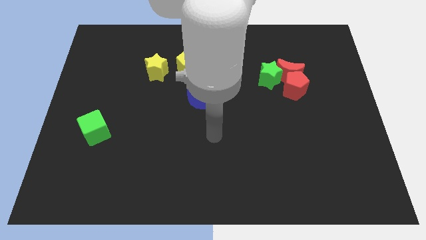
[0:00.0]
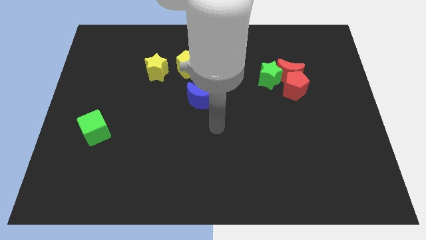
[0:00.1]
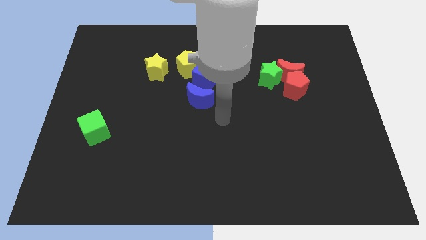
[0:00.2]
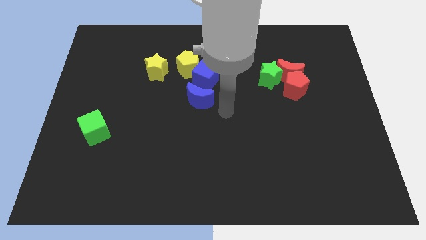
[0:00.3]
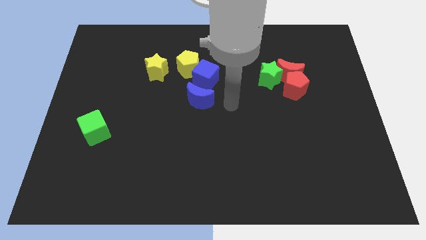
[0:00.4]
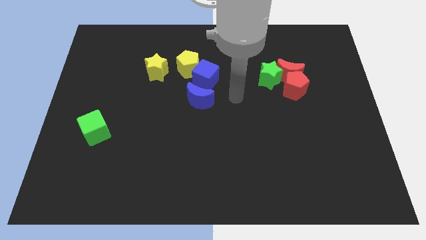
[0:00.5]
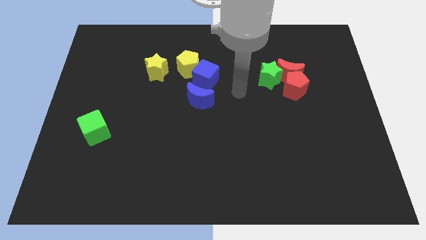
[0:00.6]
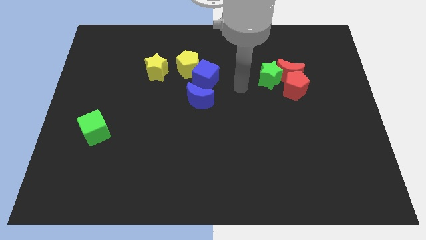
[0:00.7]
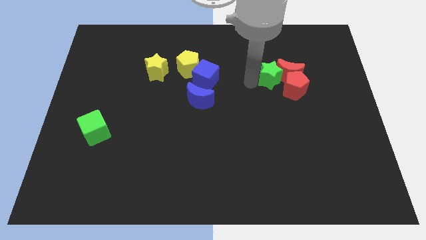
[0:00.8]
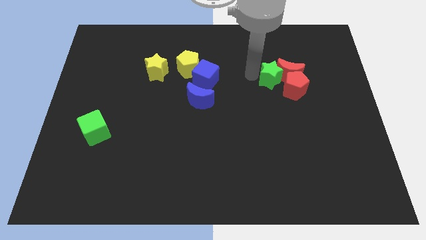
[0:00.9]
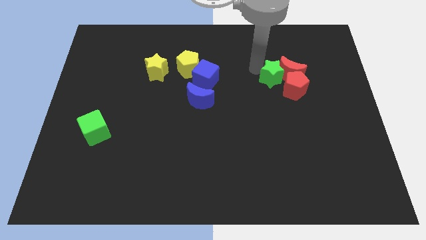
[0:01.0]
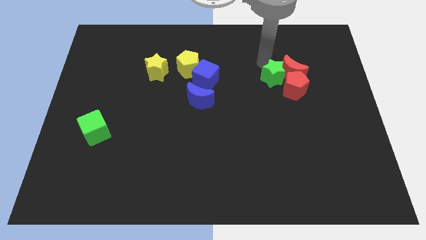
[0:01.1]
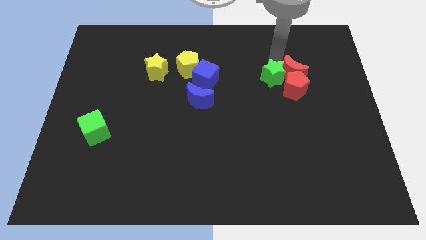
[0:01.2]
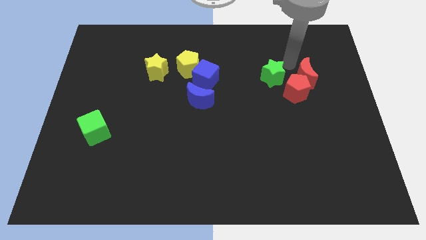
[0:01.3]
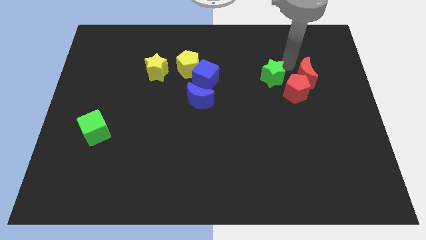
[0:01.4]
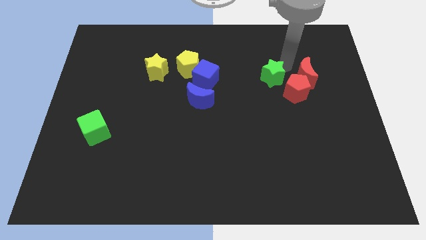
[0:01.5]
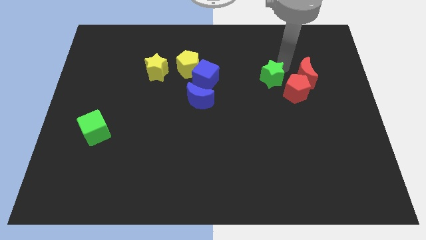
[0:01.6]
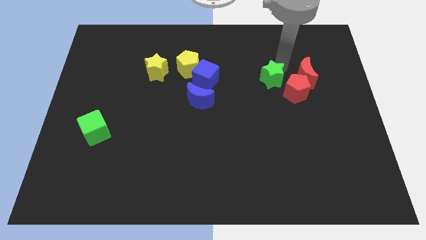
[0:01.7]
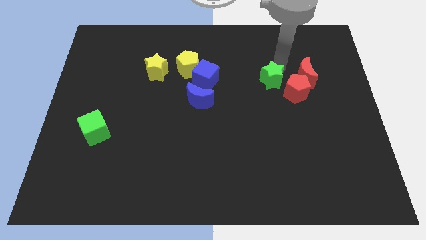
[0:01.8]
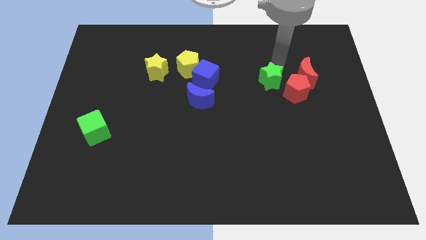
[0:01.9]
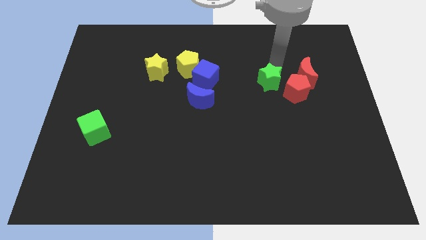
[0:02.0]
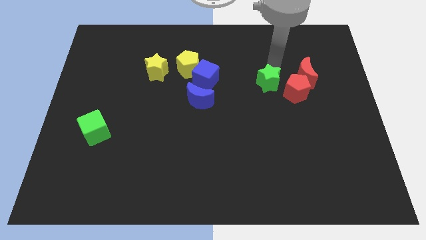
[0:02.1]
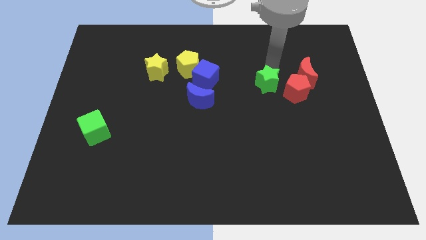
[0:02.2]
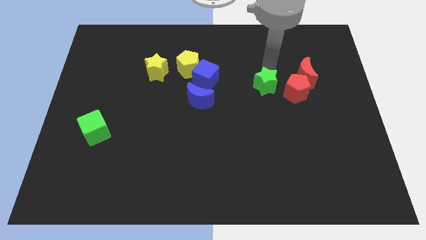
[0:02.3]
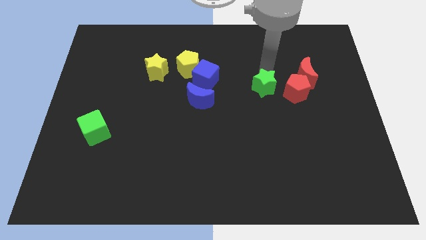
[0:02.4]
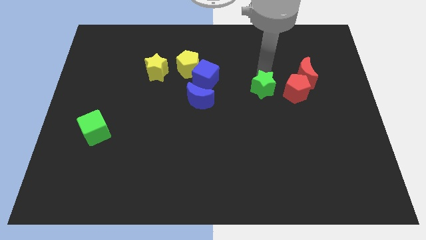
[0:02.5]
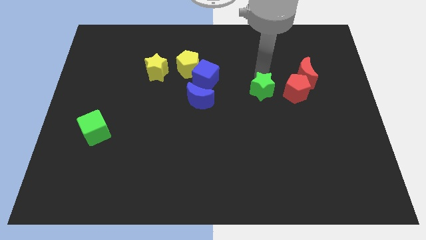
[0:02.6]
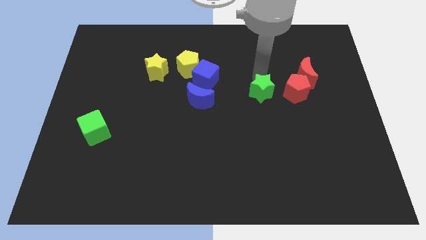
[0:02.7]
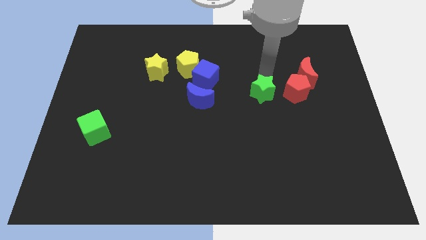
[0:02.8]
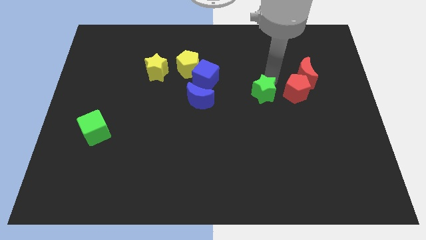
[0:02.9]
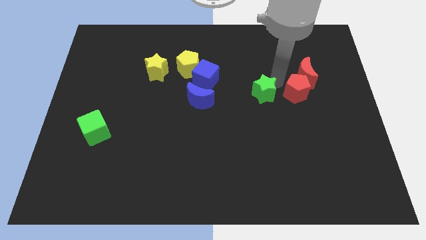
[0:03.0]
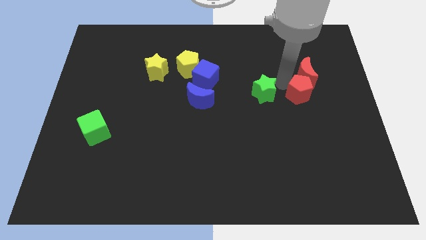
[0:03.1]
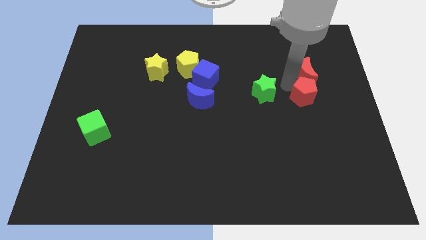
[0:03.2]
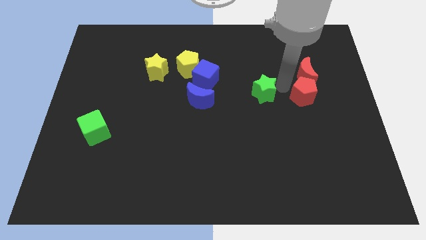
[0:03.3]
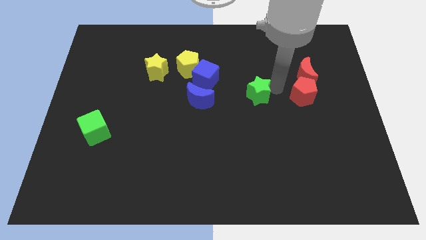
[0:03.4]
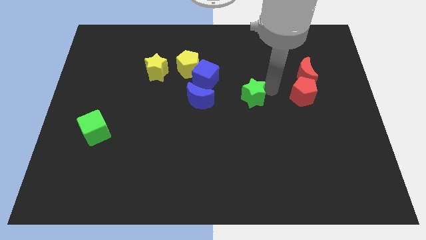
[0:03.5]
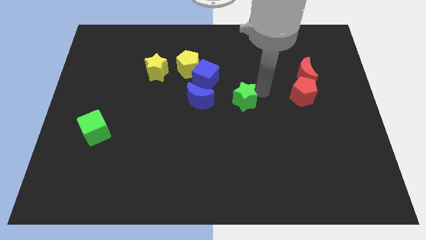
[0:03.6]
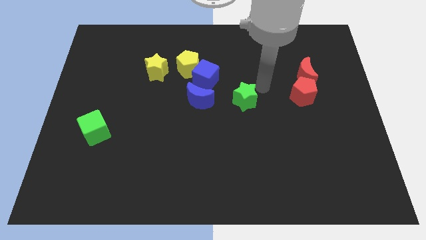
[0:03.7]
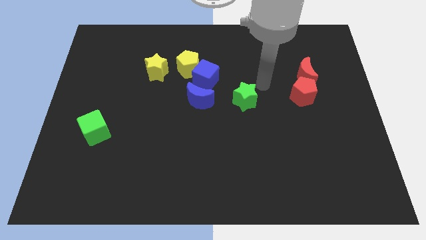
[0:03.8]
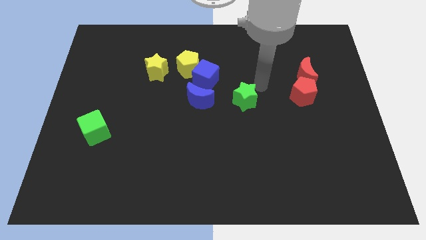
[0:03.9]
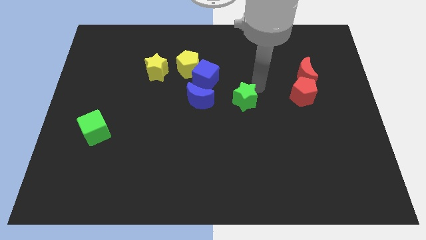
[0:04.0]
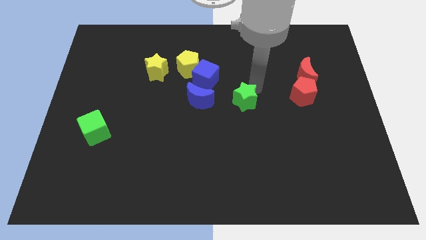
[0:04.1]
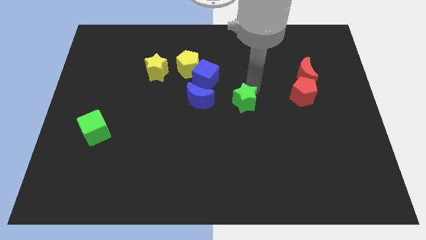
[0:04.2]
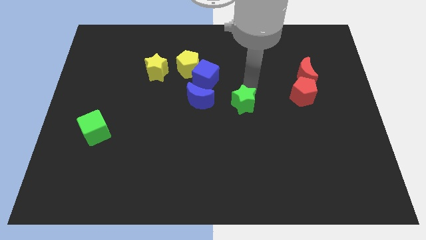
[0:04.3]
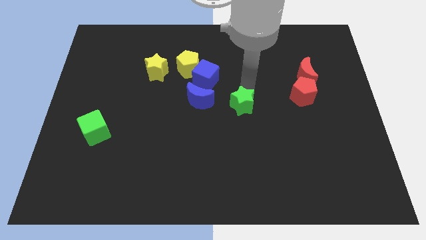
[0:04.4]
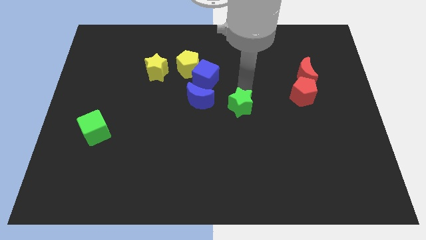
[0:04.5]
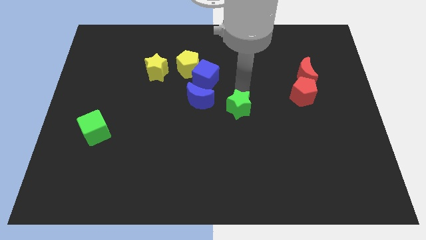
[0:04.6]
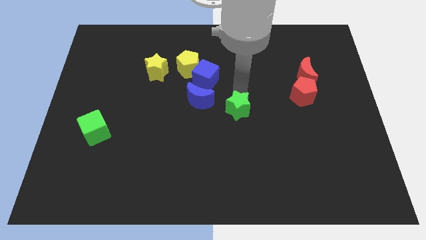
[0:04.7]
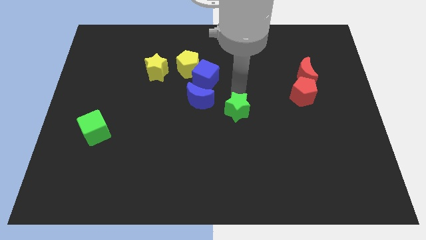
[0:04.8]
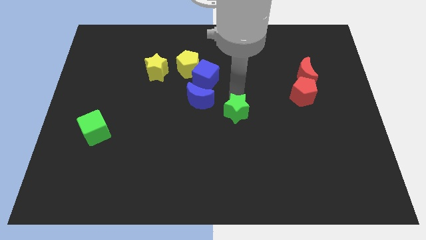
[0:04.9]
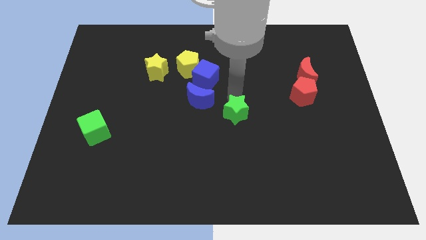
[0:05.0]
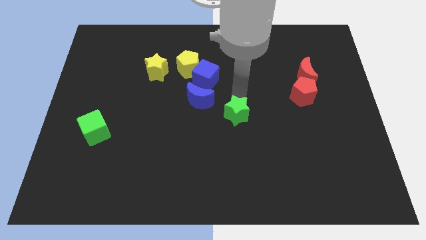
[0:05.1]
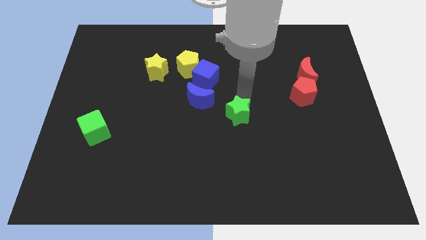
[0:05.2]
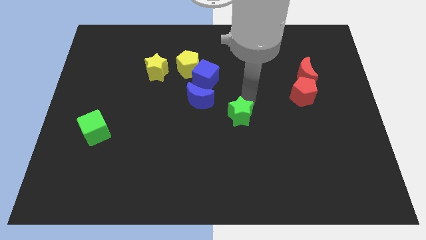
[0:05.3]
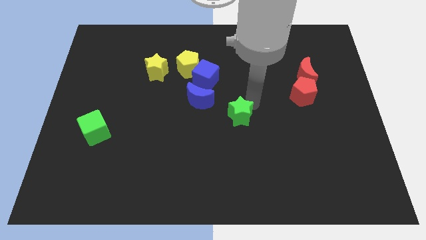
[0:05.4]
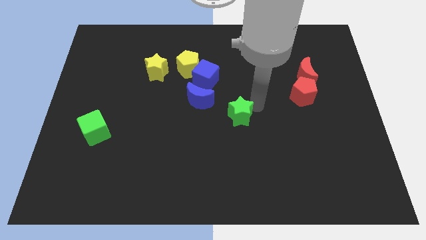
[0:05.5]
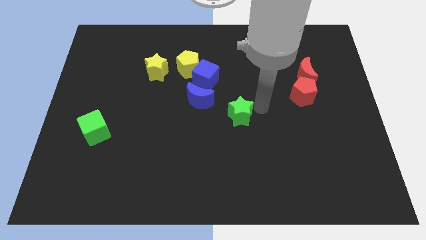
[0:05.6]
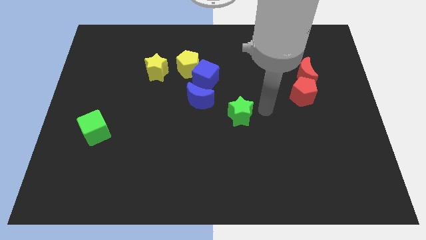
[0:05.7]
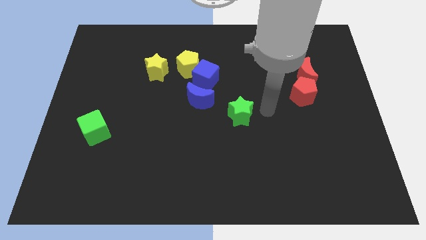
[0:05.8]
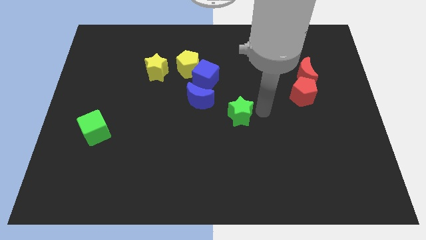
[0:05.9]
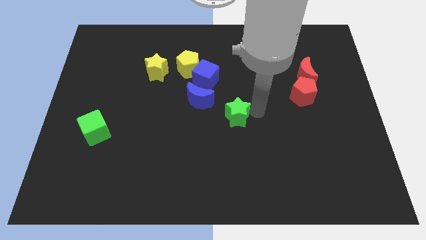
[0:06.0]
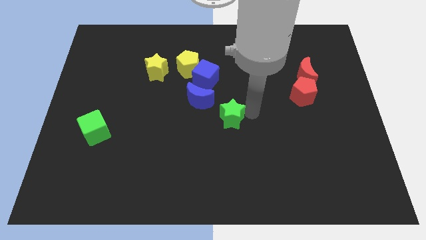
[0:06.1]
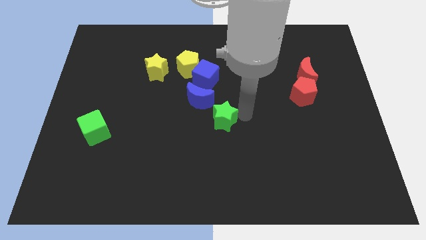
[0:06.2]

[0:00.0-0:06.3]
put the green star to the bottom of the blue cube

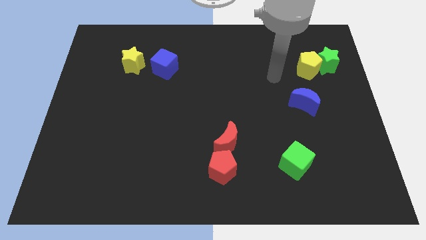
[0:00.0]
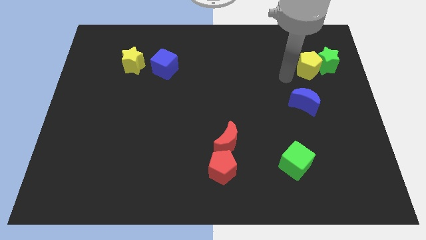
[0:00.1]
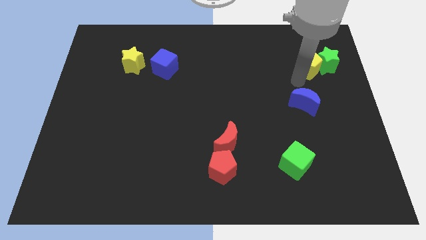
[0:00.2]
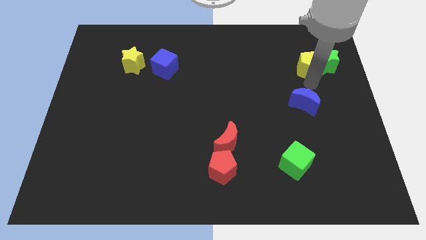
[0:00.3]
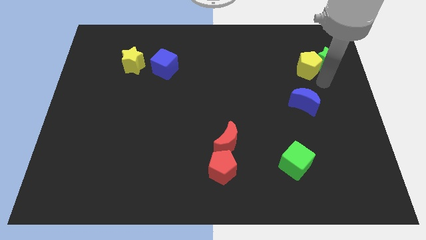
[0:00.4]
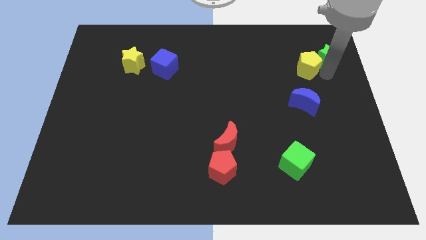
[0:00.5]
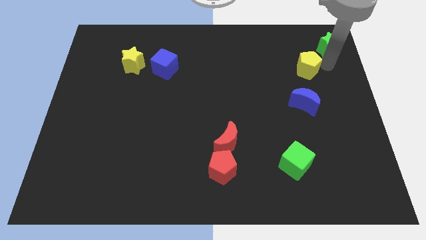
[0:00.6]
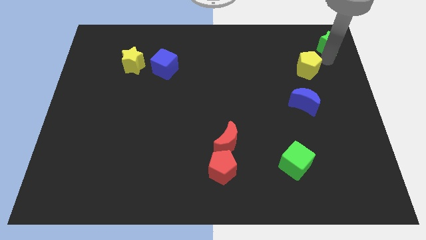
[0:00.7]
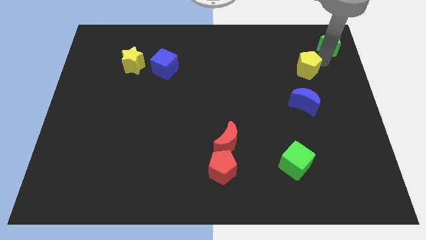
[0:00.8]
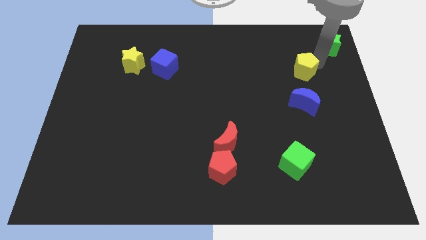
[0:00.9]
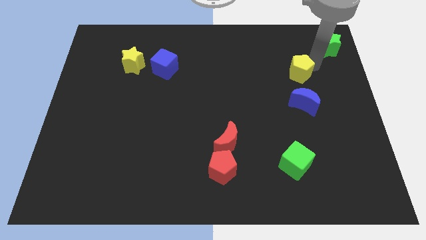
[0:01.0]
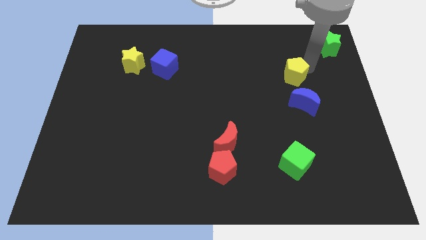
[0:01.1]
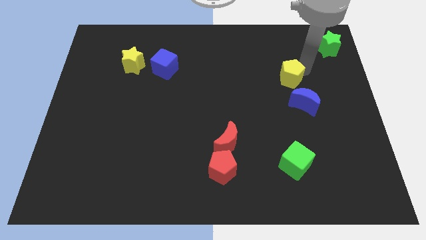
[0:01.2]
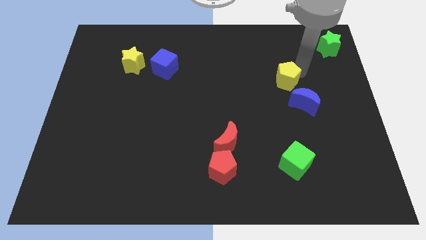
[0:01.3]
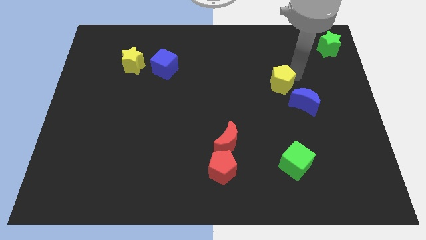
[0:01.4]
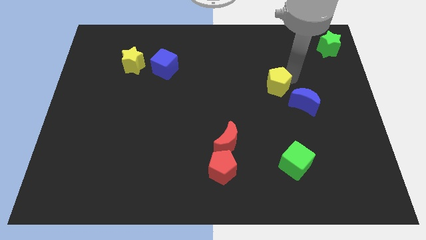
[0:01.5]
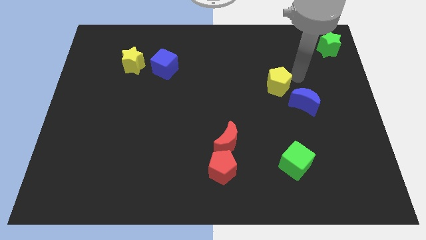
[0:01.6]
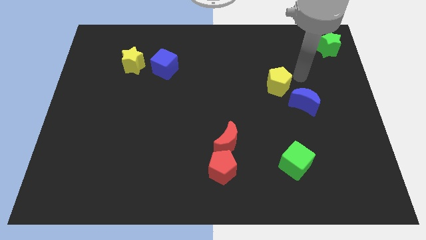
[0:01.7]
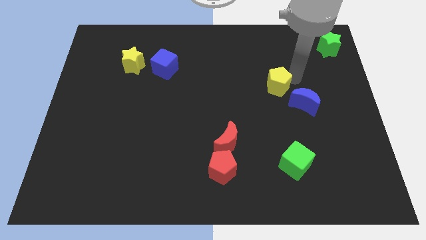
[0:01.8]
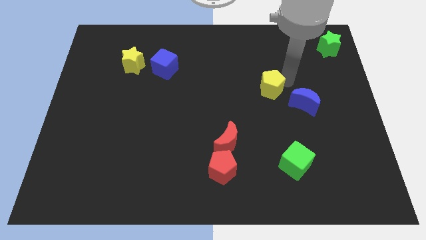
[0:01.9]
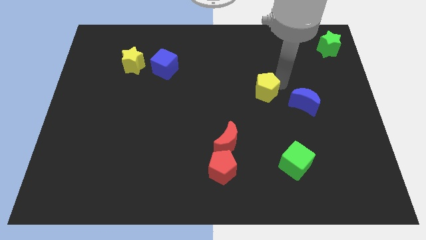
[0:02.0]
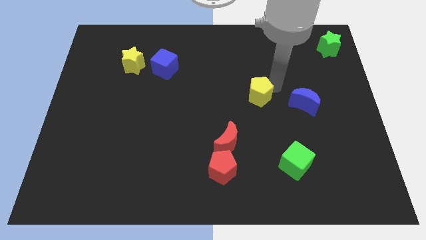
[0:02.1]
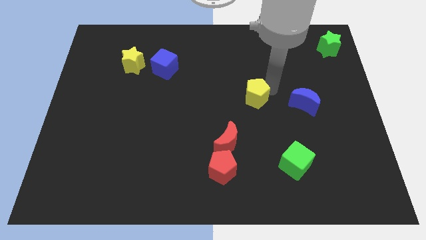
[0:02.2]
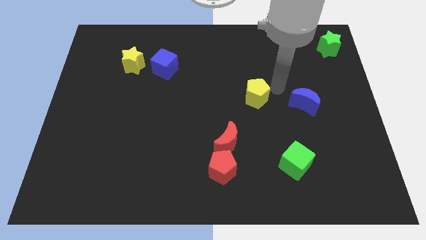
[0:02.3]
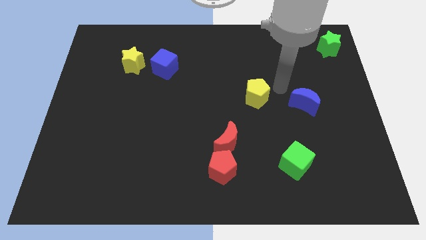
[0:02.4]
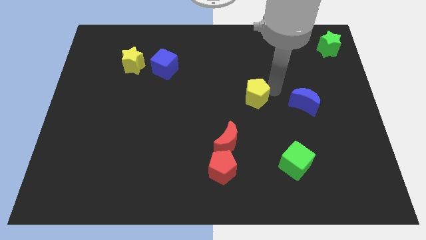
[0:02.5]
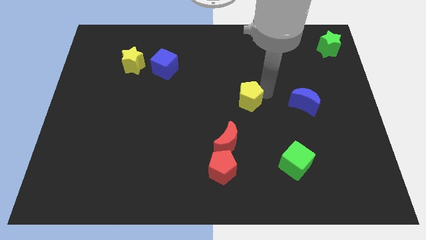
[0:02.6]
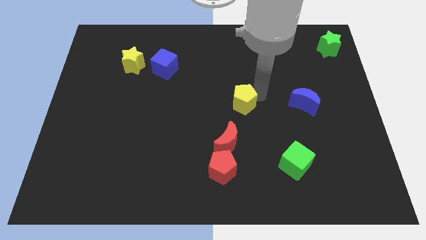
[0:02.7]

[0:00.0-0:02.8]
move the yellow pentagon to the top side of the red moon
